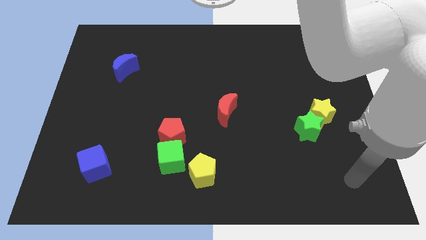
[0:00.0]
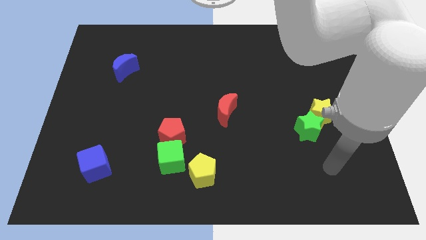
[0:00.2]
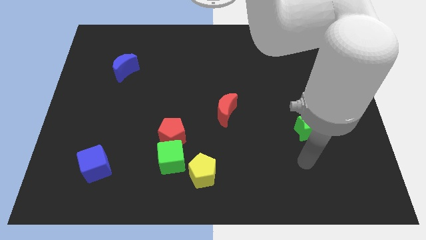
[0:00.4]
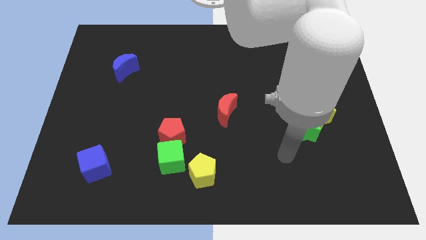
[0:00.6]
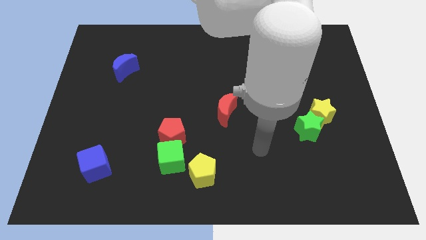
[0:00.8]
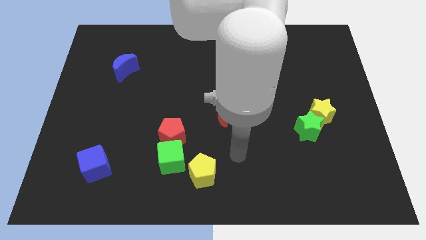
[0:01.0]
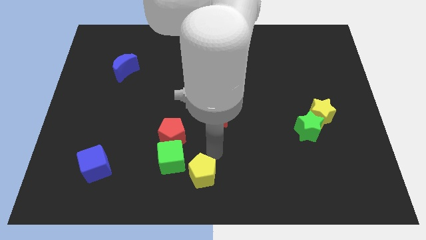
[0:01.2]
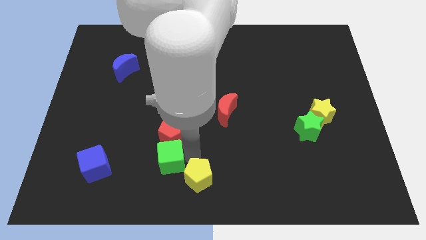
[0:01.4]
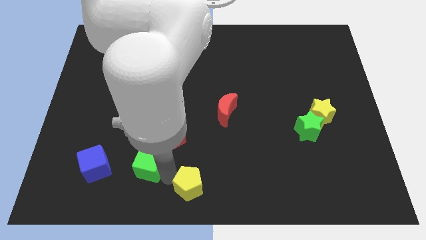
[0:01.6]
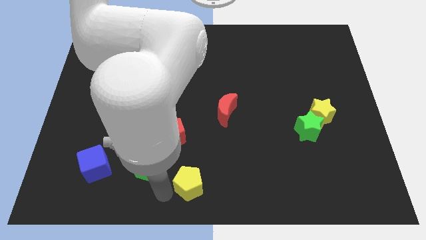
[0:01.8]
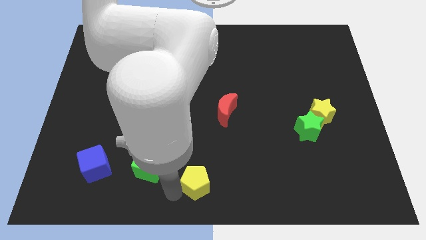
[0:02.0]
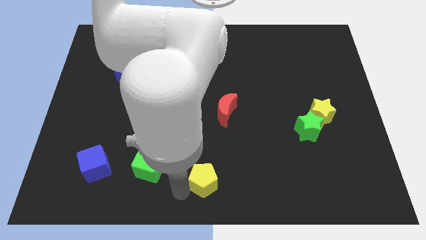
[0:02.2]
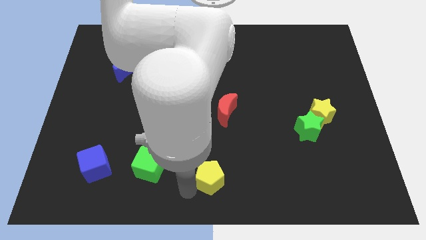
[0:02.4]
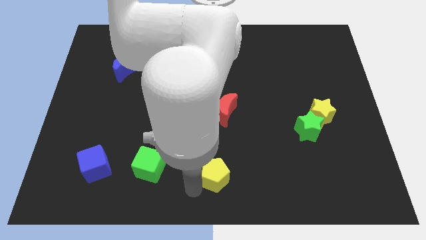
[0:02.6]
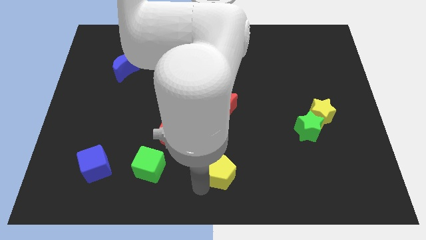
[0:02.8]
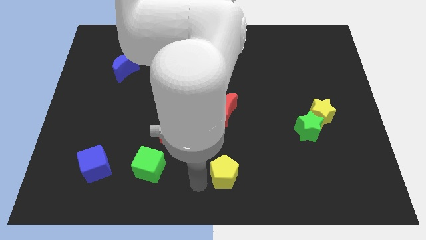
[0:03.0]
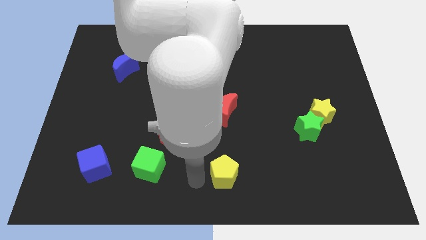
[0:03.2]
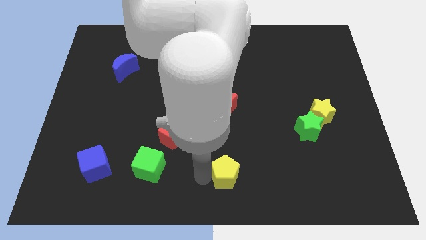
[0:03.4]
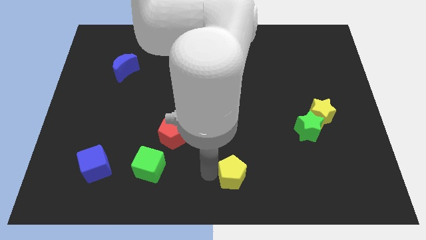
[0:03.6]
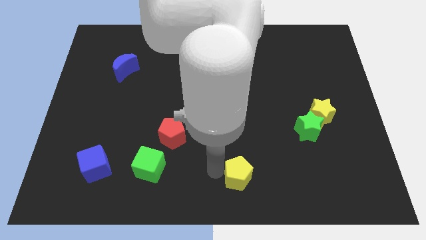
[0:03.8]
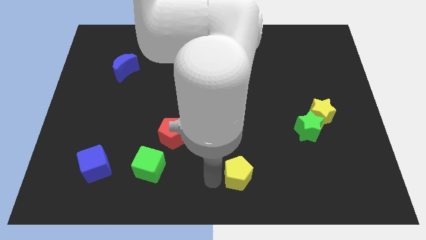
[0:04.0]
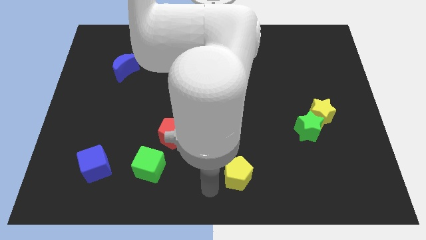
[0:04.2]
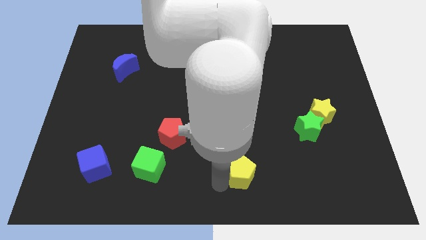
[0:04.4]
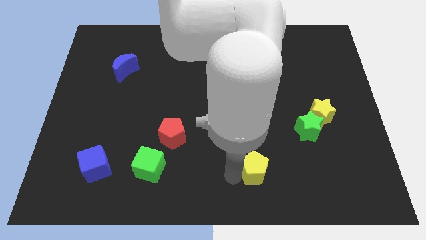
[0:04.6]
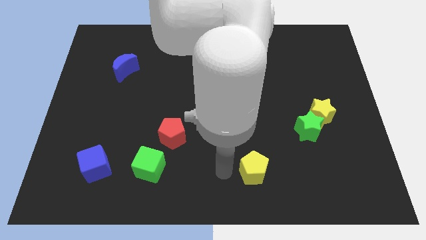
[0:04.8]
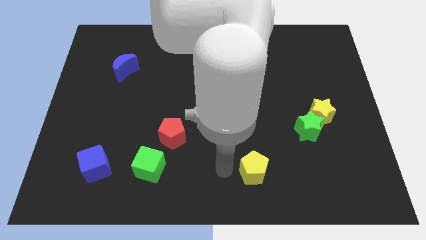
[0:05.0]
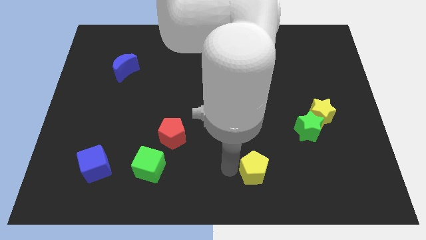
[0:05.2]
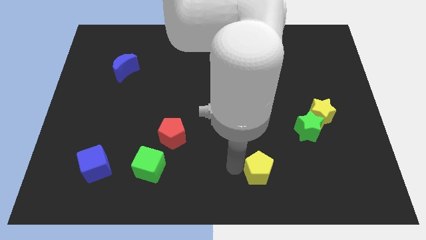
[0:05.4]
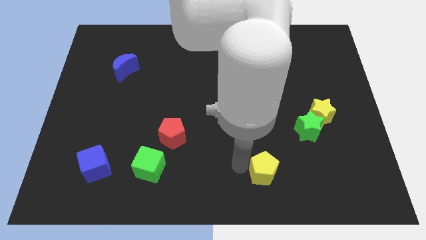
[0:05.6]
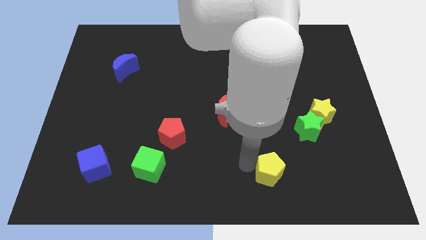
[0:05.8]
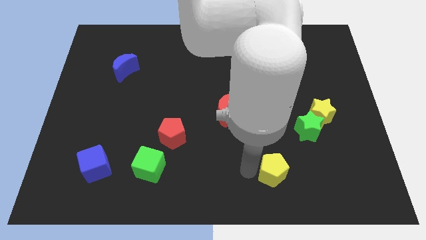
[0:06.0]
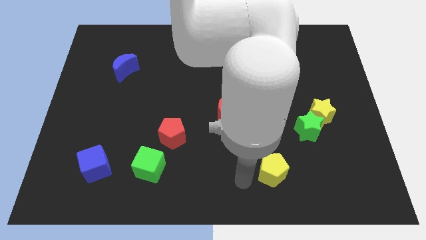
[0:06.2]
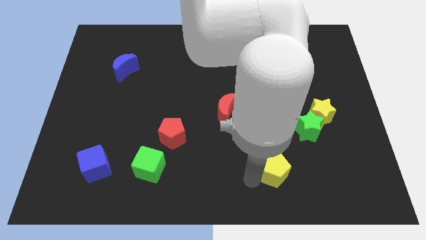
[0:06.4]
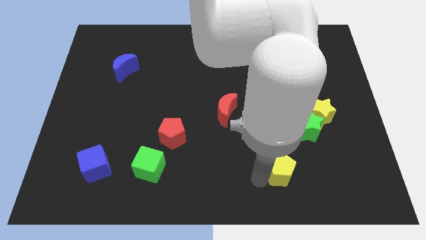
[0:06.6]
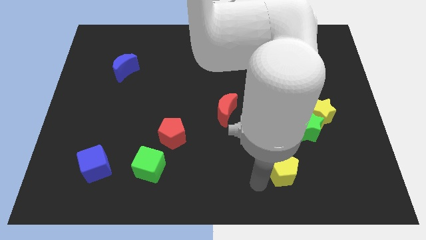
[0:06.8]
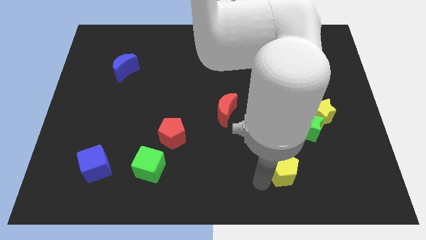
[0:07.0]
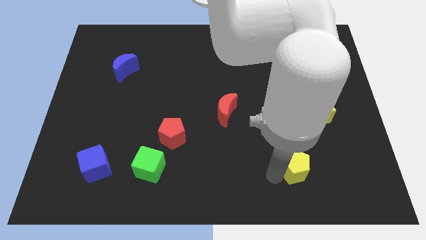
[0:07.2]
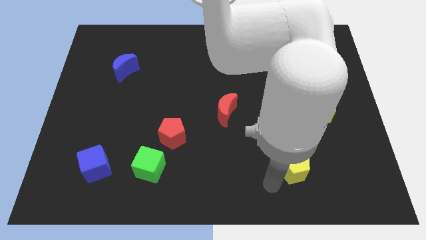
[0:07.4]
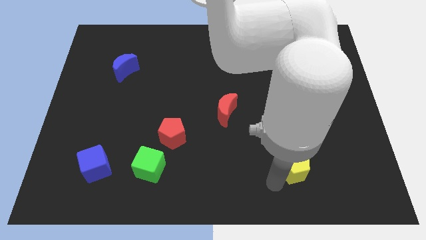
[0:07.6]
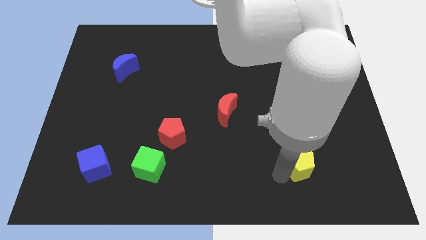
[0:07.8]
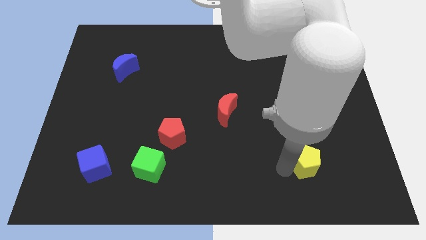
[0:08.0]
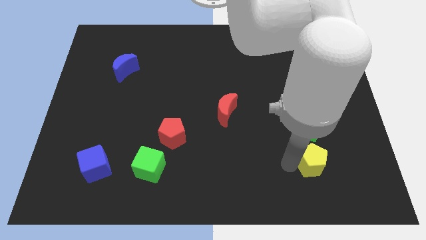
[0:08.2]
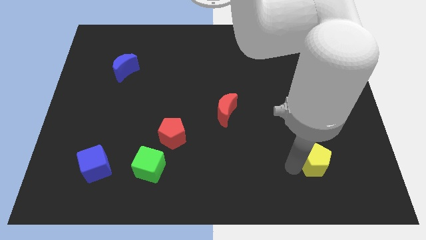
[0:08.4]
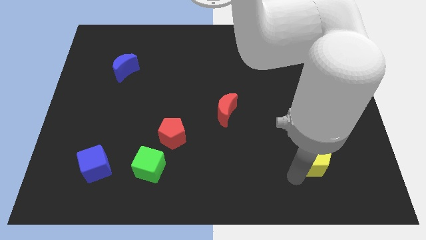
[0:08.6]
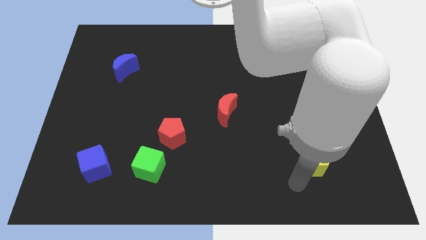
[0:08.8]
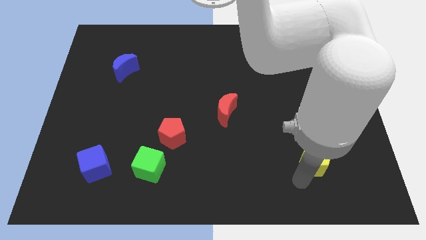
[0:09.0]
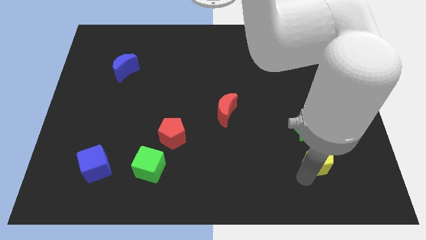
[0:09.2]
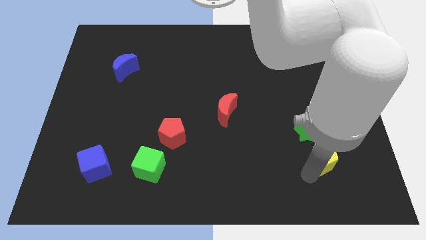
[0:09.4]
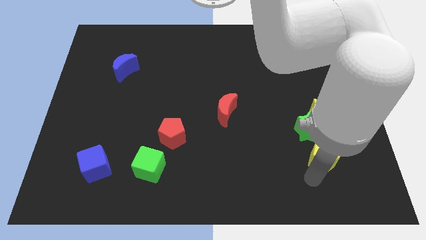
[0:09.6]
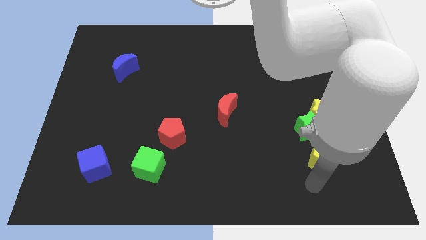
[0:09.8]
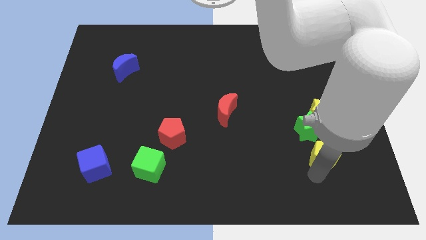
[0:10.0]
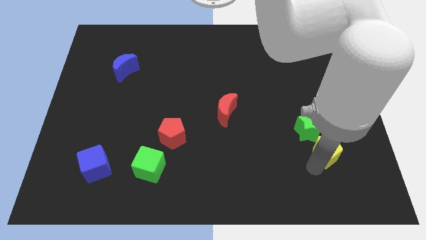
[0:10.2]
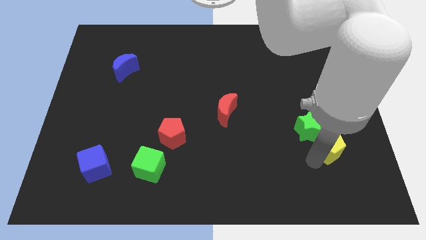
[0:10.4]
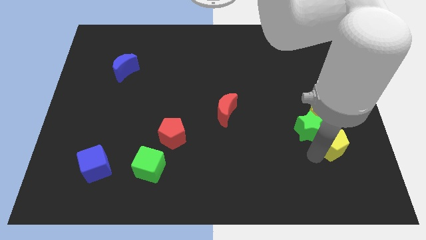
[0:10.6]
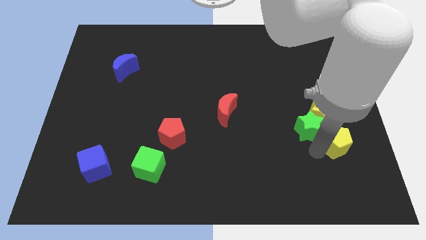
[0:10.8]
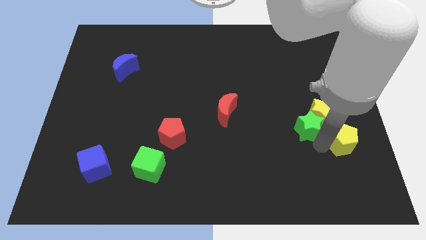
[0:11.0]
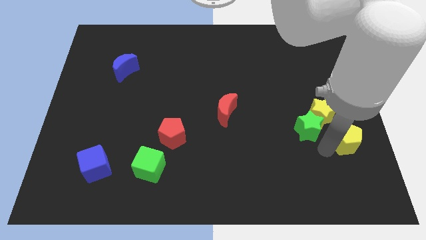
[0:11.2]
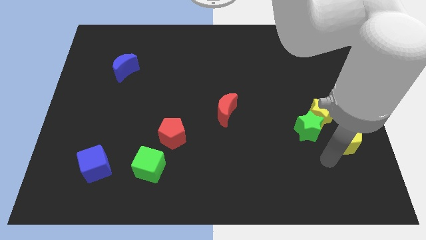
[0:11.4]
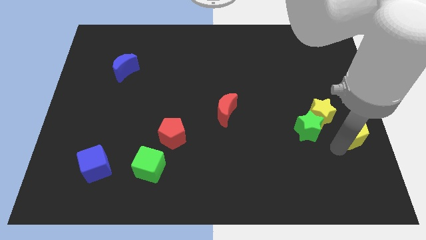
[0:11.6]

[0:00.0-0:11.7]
move the yellow pentagon to the right side of the board
